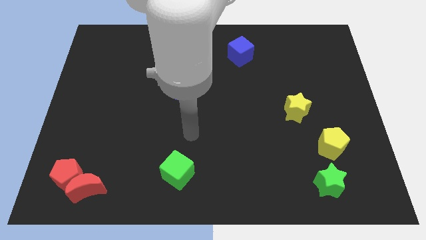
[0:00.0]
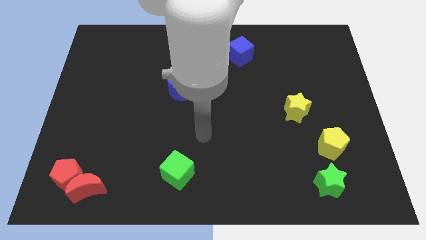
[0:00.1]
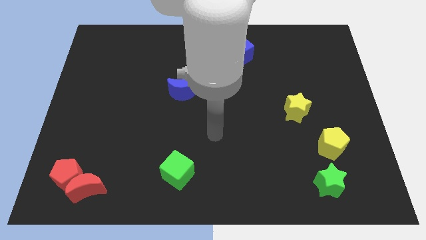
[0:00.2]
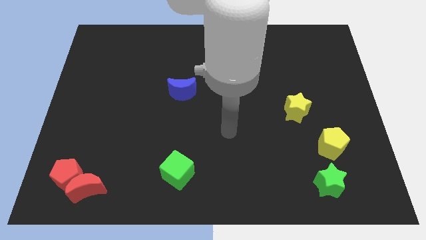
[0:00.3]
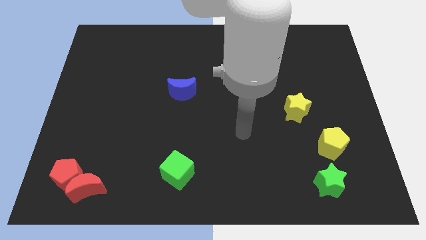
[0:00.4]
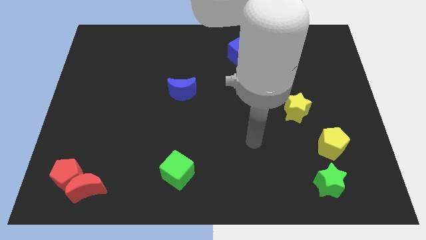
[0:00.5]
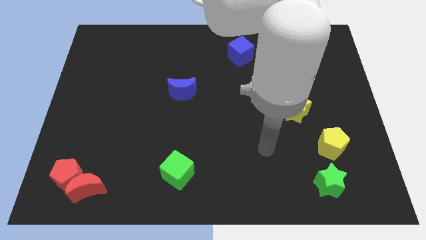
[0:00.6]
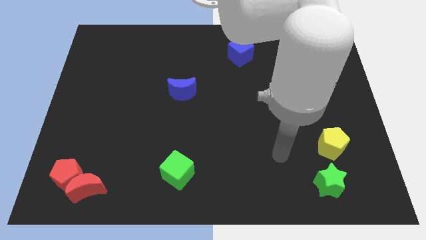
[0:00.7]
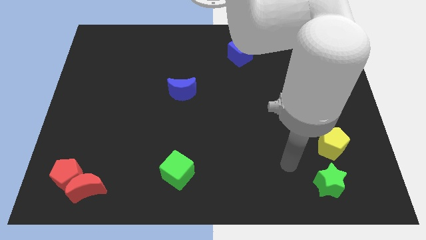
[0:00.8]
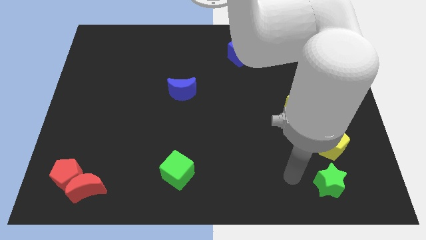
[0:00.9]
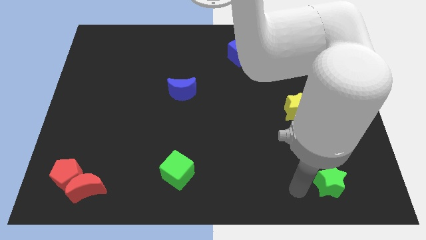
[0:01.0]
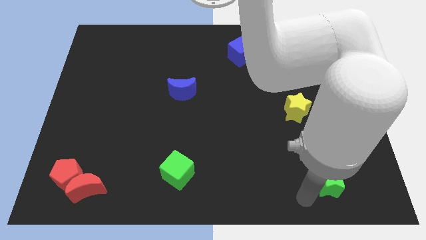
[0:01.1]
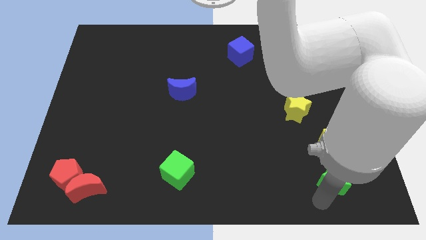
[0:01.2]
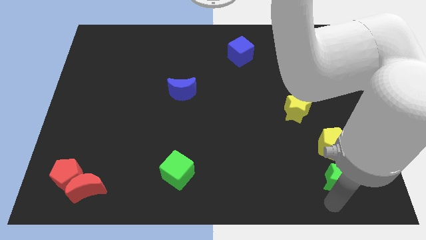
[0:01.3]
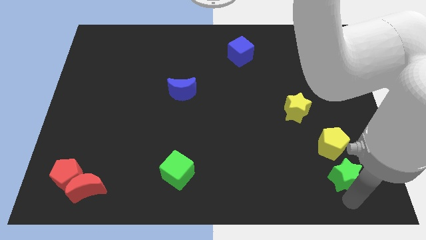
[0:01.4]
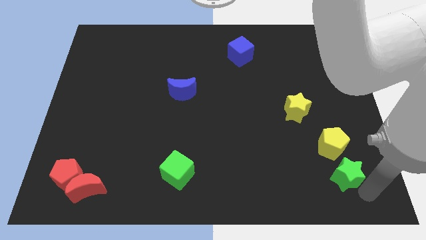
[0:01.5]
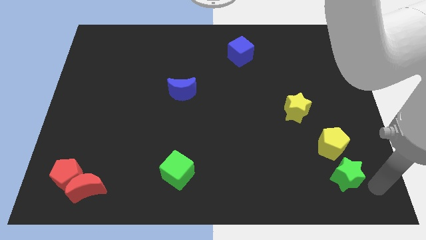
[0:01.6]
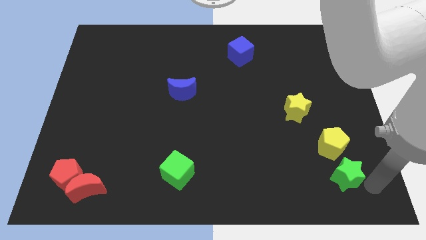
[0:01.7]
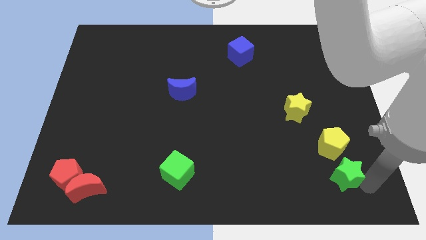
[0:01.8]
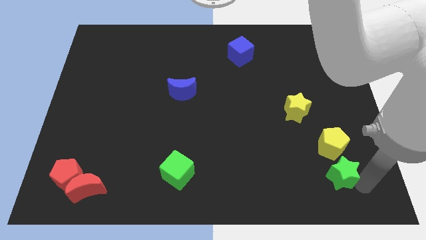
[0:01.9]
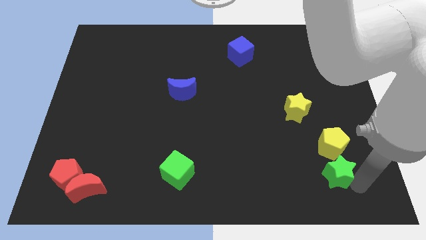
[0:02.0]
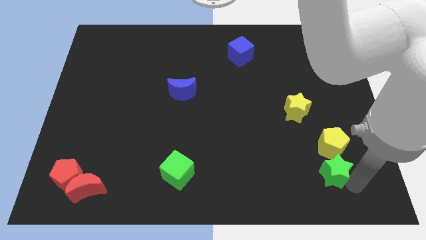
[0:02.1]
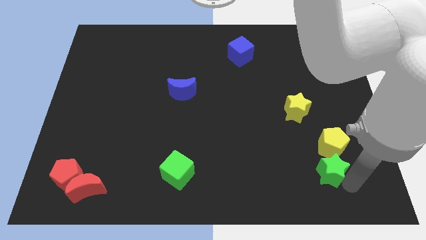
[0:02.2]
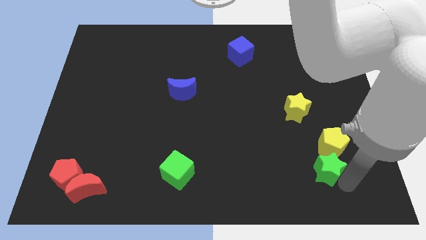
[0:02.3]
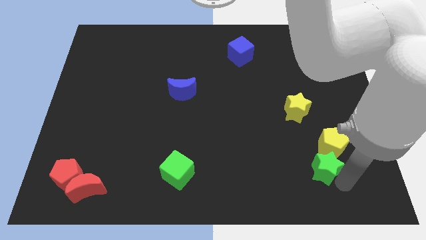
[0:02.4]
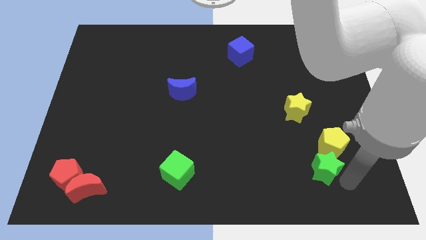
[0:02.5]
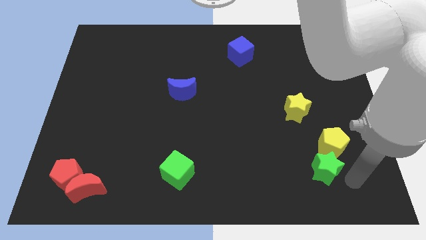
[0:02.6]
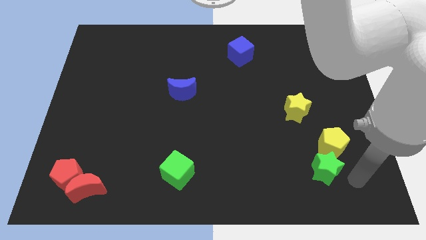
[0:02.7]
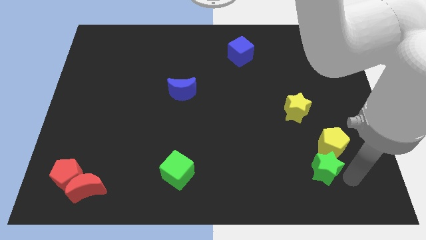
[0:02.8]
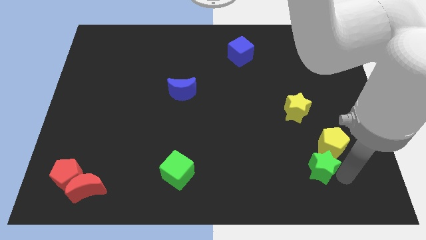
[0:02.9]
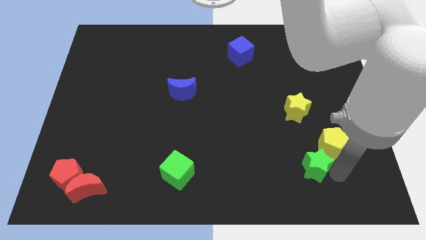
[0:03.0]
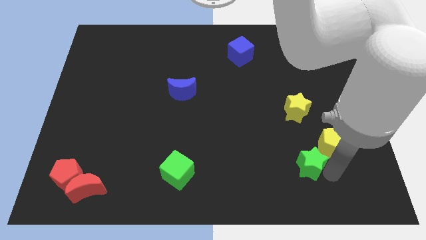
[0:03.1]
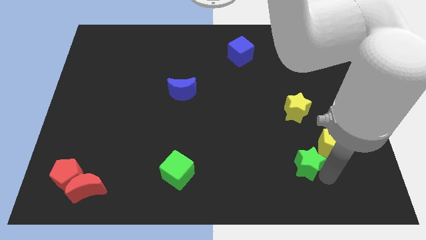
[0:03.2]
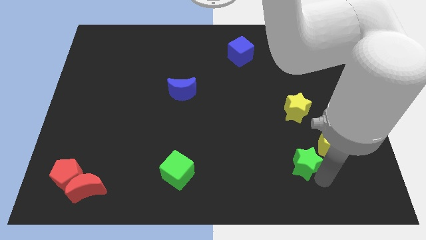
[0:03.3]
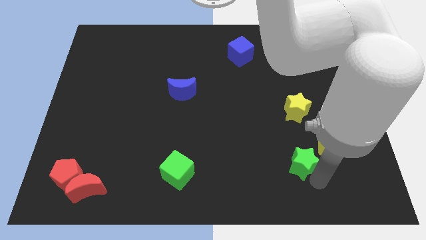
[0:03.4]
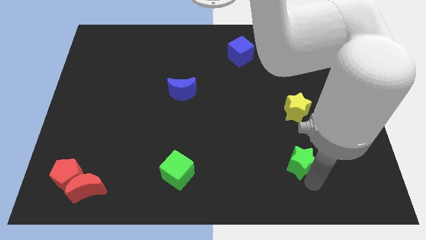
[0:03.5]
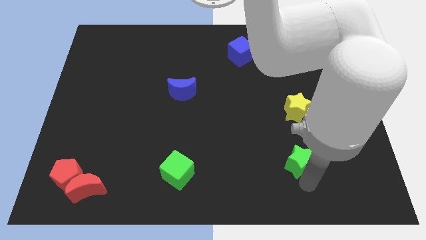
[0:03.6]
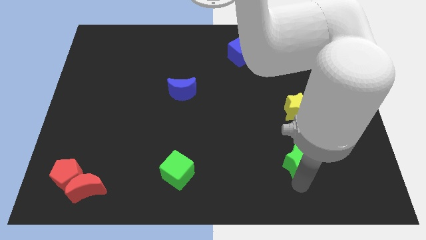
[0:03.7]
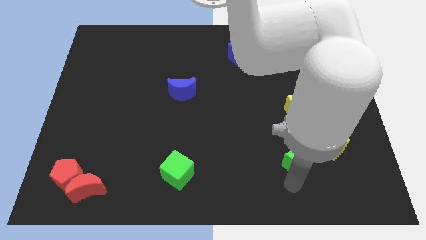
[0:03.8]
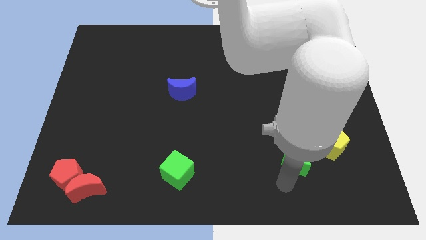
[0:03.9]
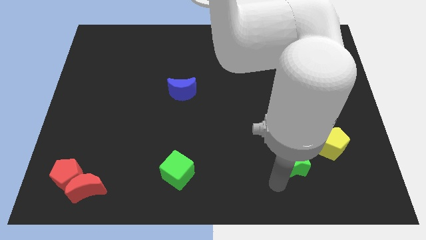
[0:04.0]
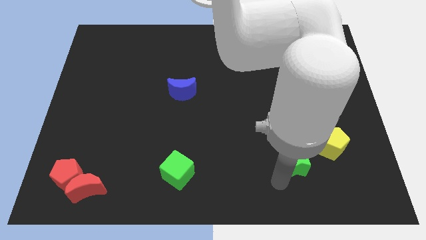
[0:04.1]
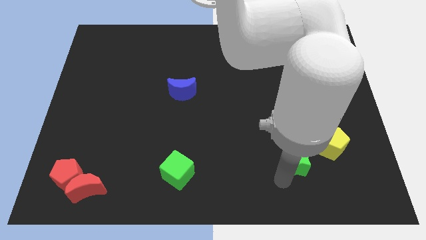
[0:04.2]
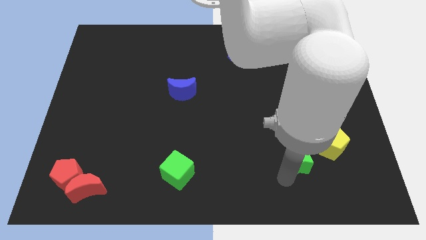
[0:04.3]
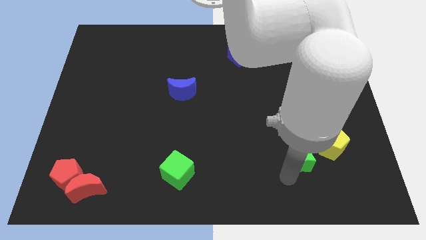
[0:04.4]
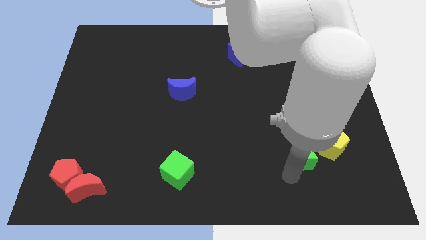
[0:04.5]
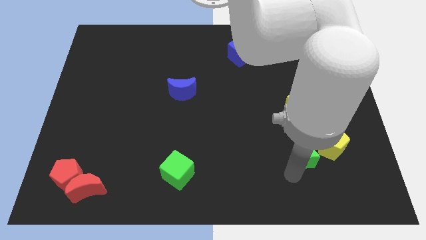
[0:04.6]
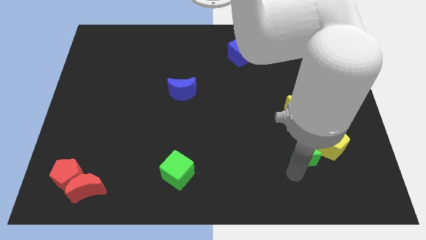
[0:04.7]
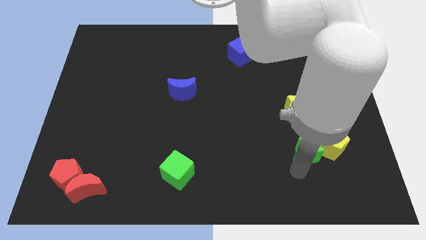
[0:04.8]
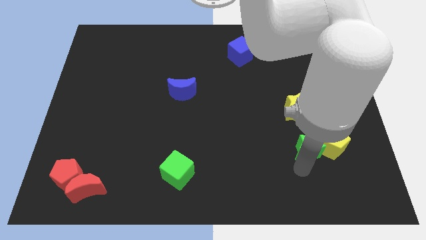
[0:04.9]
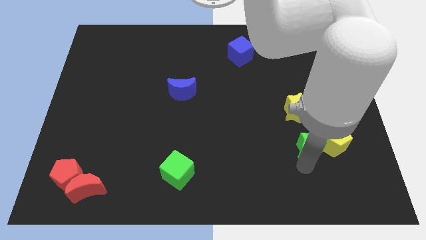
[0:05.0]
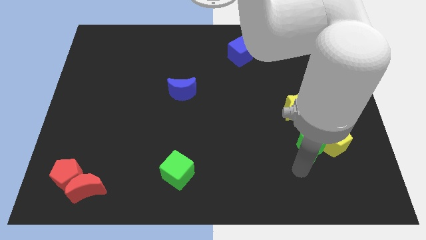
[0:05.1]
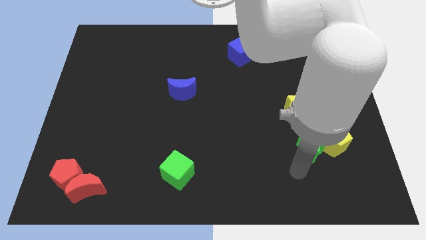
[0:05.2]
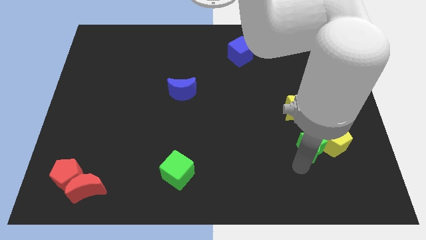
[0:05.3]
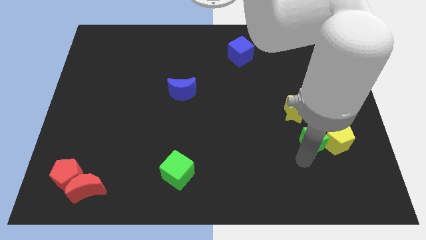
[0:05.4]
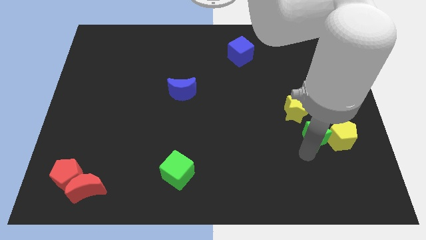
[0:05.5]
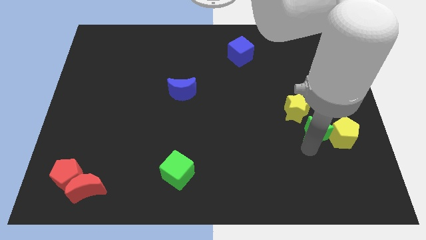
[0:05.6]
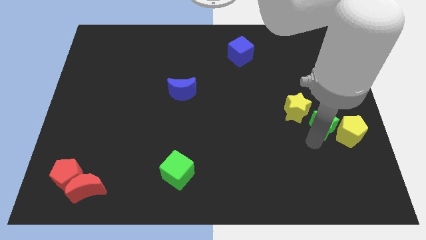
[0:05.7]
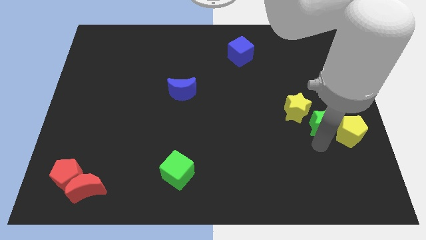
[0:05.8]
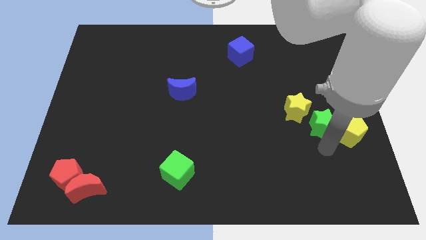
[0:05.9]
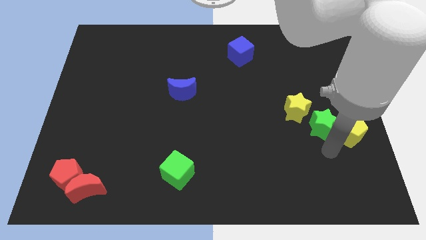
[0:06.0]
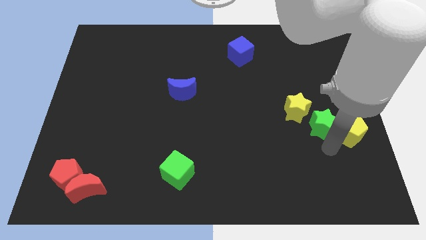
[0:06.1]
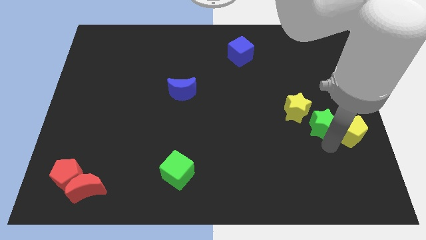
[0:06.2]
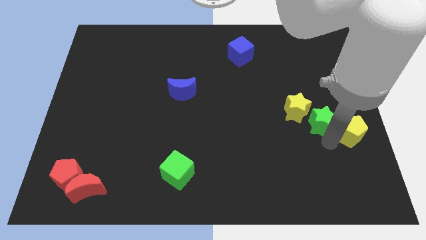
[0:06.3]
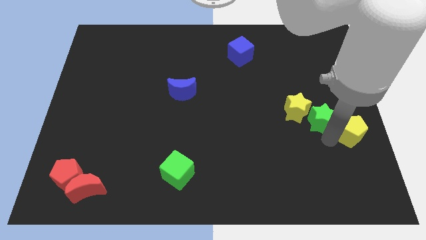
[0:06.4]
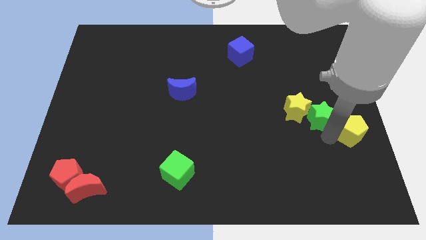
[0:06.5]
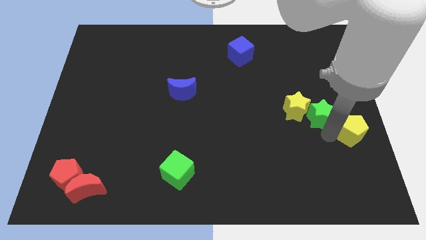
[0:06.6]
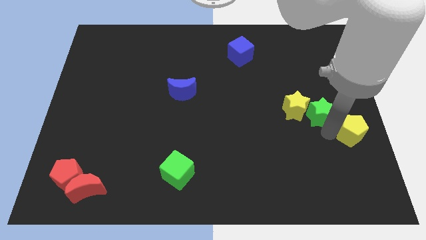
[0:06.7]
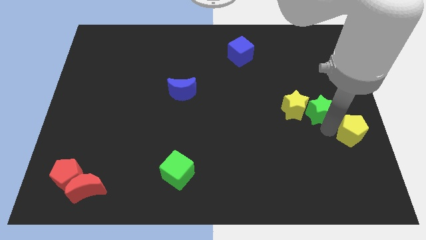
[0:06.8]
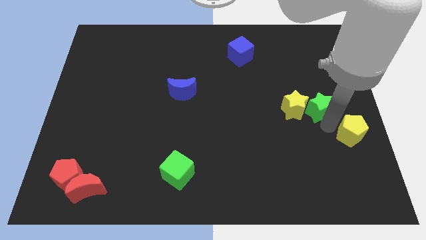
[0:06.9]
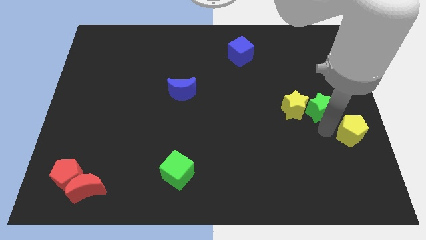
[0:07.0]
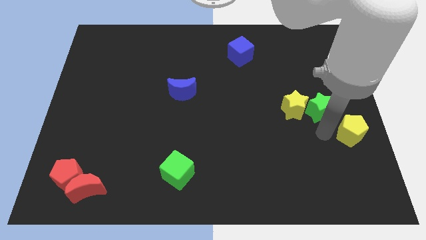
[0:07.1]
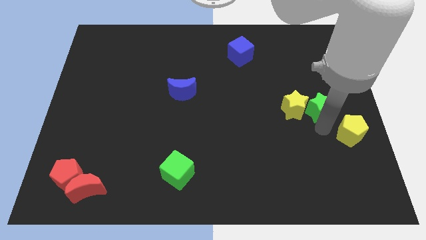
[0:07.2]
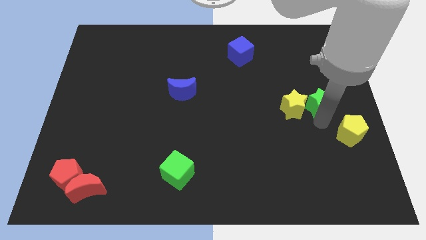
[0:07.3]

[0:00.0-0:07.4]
push the green star up

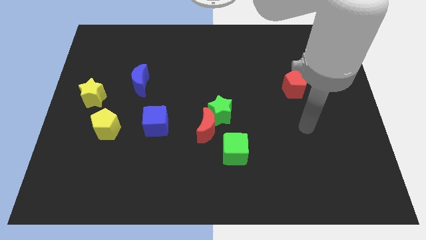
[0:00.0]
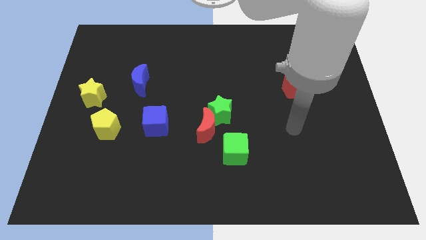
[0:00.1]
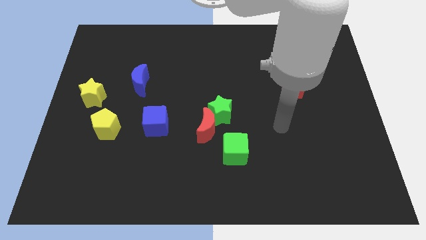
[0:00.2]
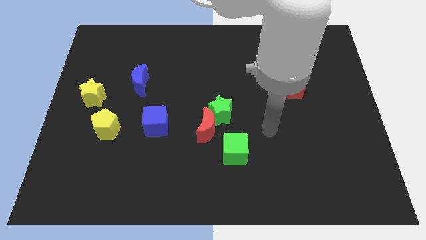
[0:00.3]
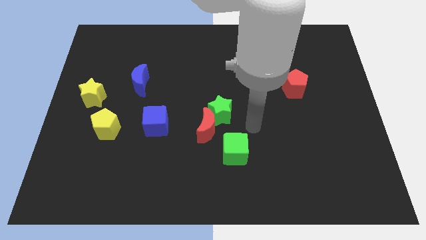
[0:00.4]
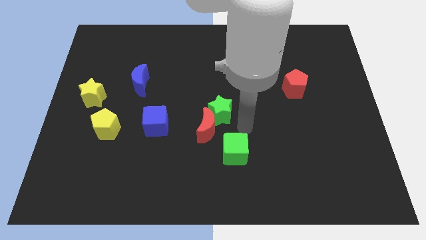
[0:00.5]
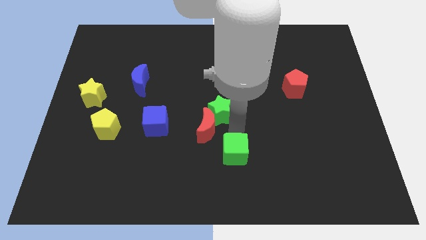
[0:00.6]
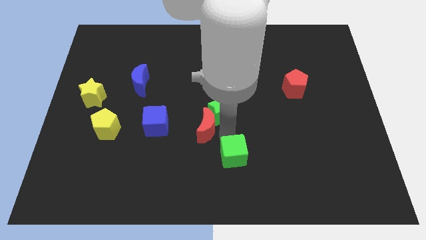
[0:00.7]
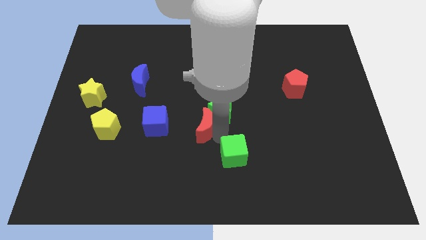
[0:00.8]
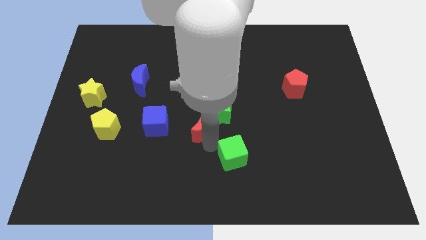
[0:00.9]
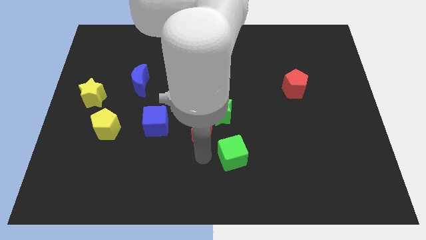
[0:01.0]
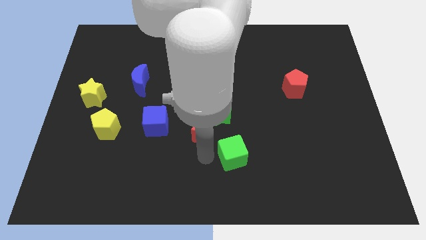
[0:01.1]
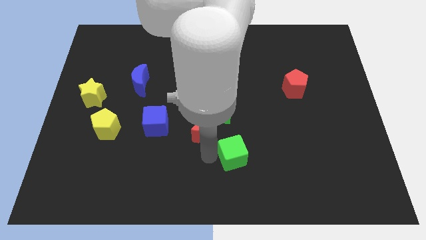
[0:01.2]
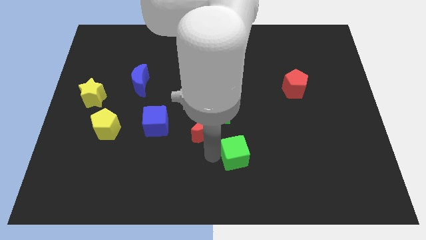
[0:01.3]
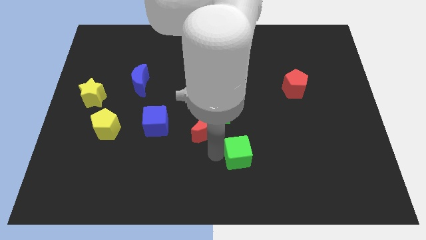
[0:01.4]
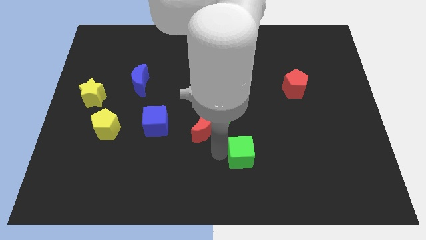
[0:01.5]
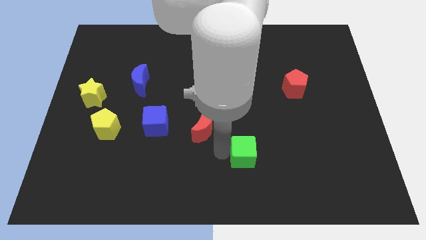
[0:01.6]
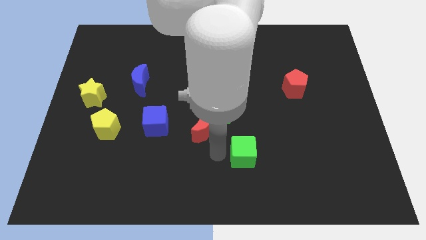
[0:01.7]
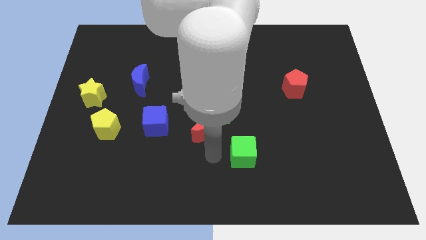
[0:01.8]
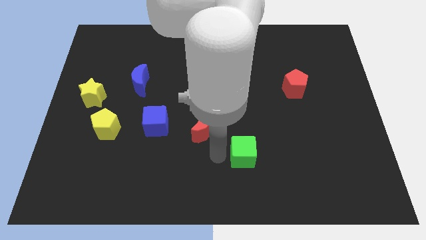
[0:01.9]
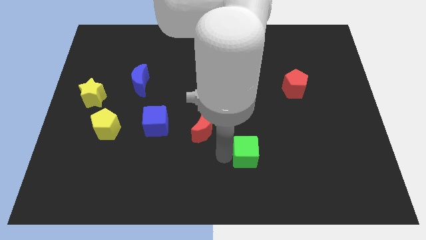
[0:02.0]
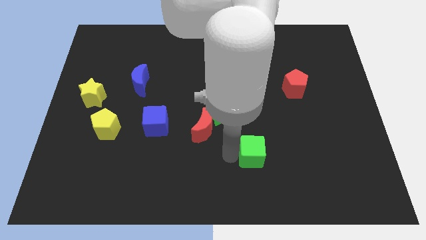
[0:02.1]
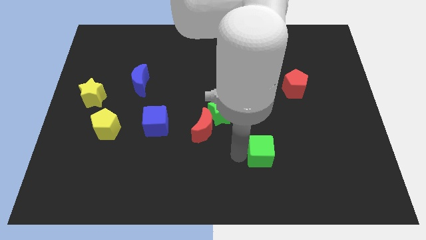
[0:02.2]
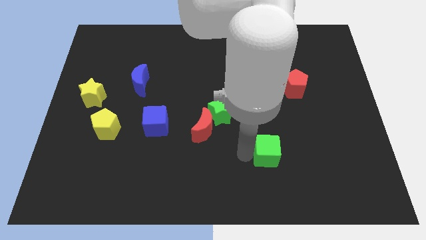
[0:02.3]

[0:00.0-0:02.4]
move the green cube right a bit
